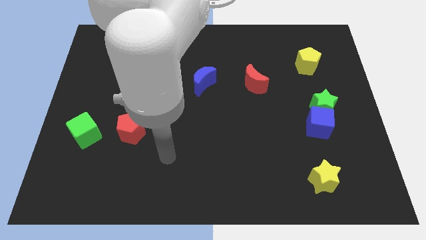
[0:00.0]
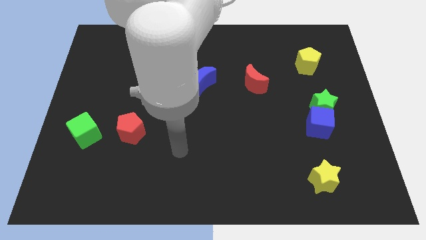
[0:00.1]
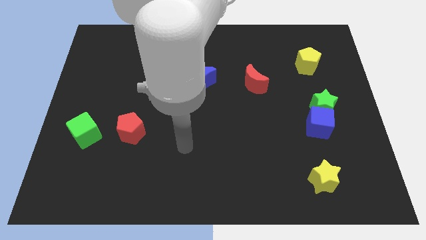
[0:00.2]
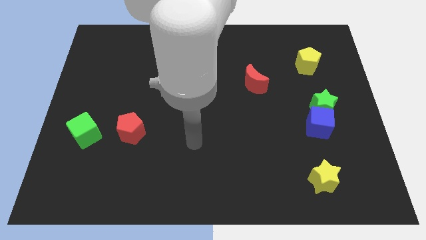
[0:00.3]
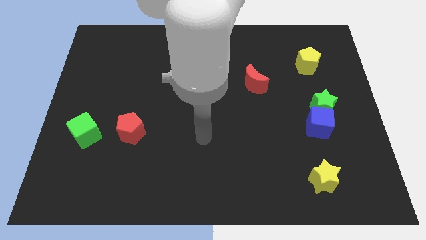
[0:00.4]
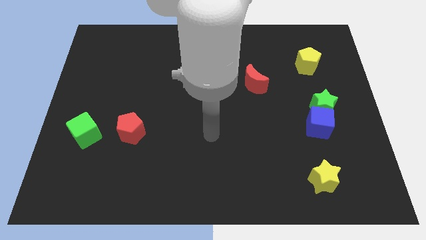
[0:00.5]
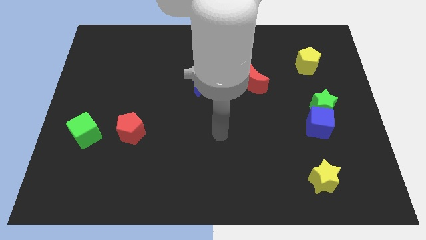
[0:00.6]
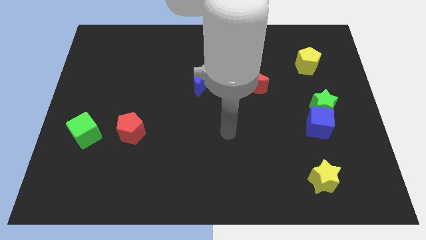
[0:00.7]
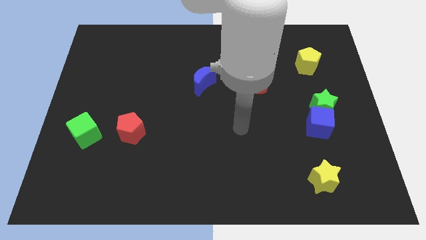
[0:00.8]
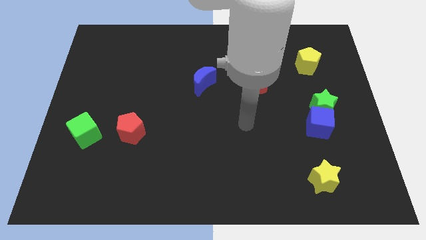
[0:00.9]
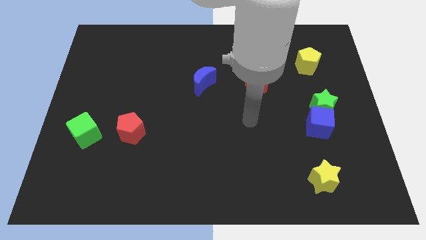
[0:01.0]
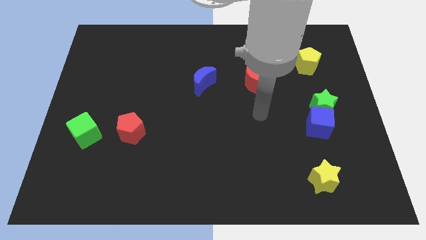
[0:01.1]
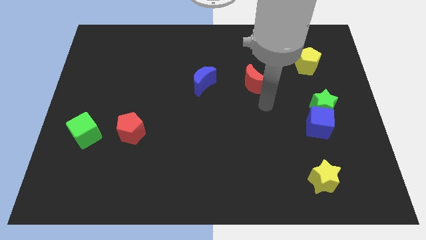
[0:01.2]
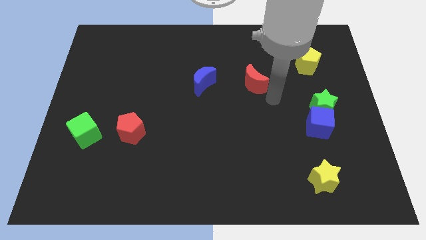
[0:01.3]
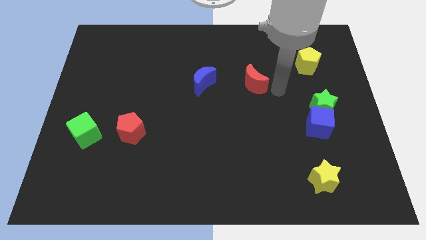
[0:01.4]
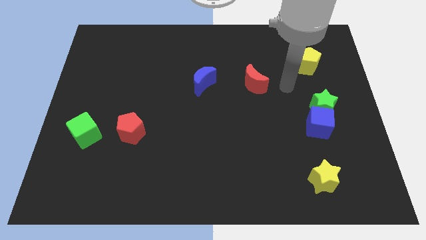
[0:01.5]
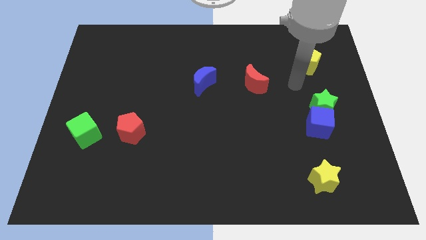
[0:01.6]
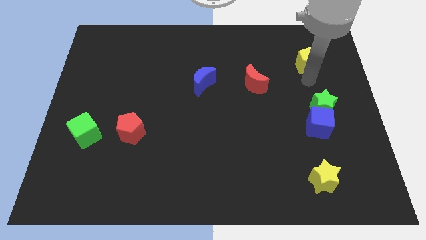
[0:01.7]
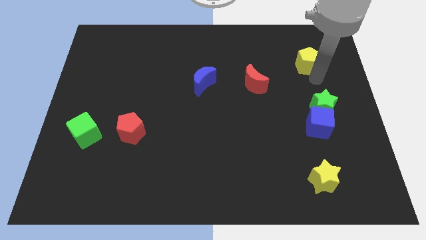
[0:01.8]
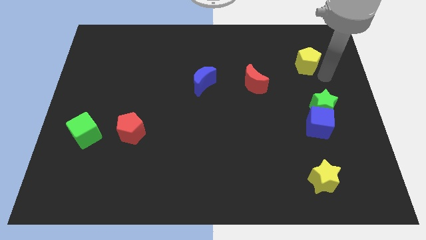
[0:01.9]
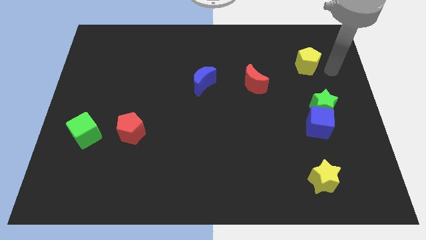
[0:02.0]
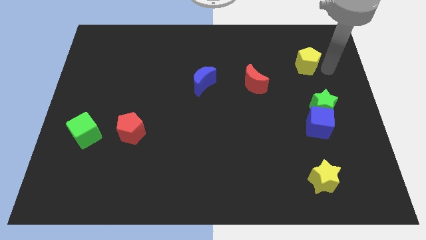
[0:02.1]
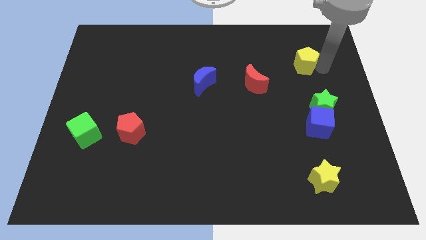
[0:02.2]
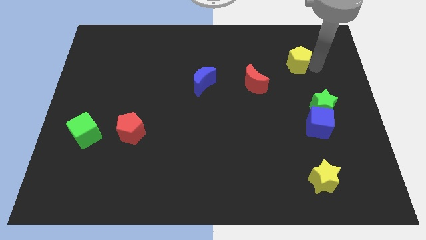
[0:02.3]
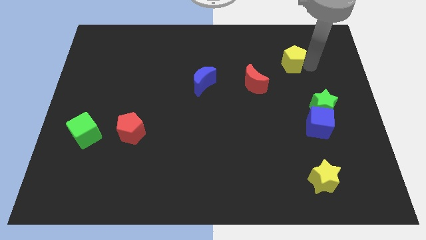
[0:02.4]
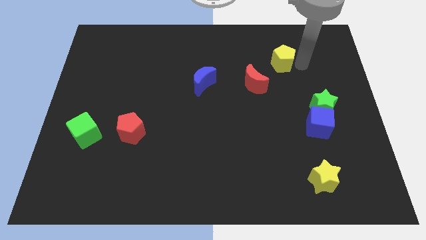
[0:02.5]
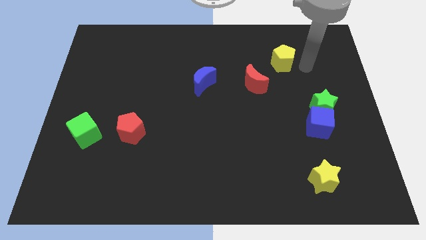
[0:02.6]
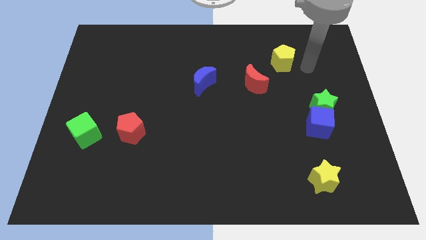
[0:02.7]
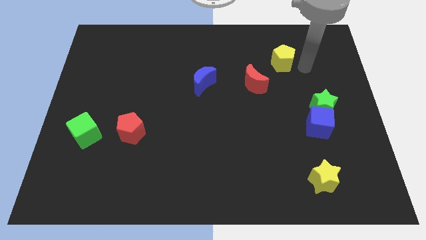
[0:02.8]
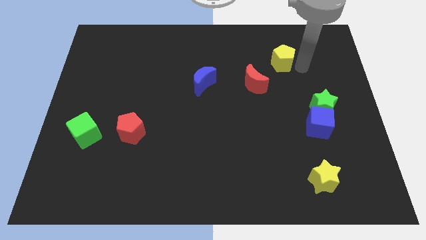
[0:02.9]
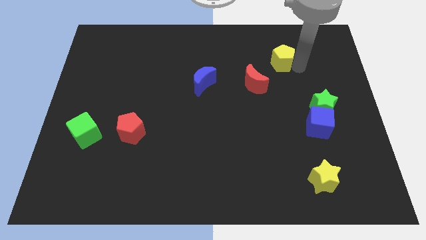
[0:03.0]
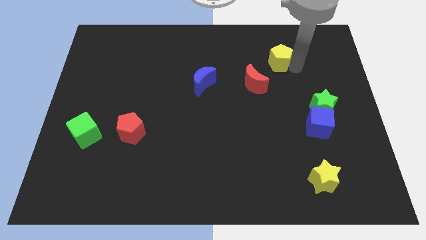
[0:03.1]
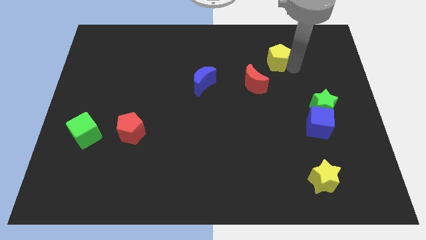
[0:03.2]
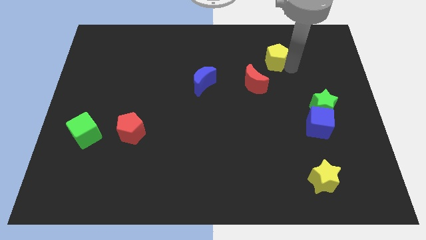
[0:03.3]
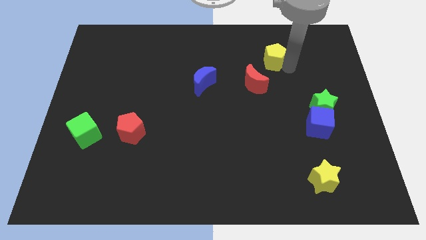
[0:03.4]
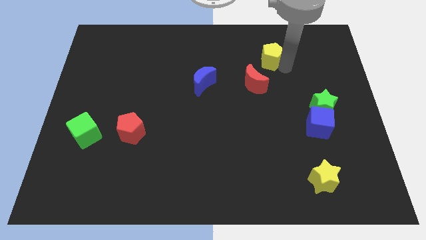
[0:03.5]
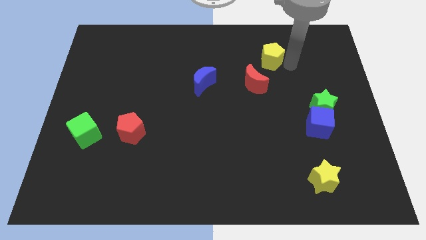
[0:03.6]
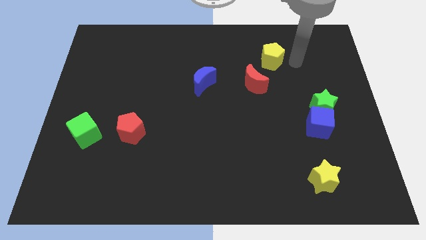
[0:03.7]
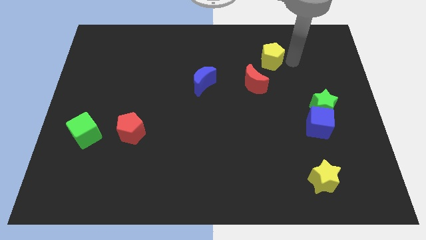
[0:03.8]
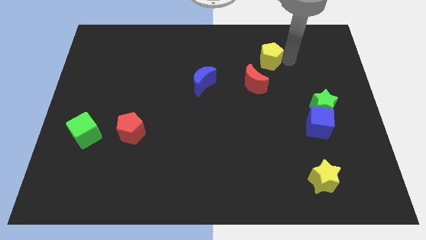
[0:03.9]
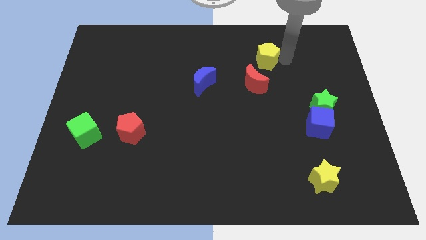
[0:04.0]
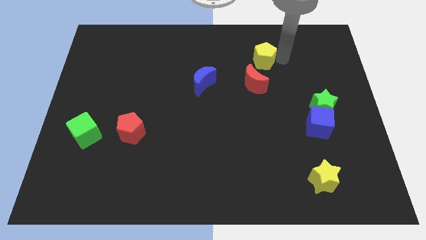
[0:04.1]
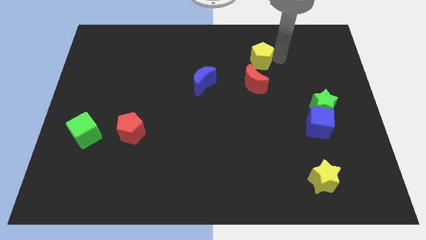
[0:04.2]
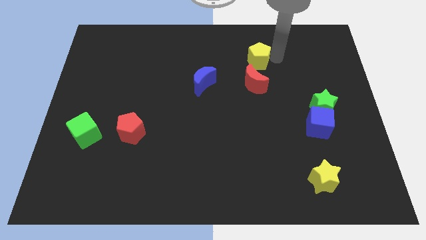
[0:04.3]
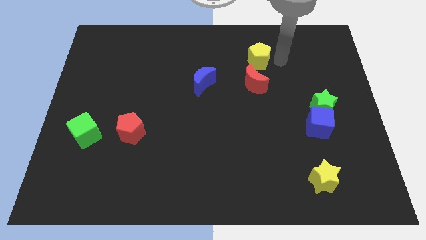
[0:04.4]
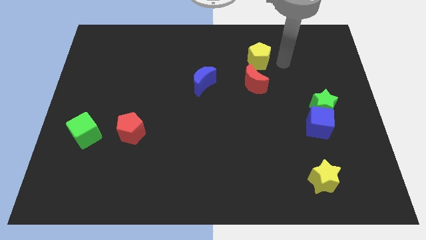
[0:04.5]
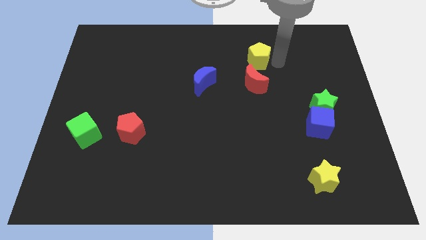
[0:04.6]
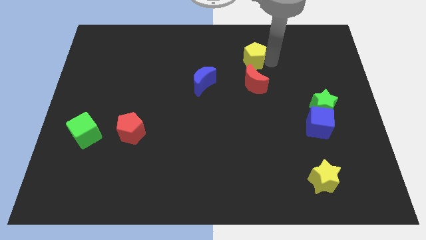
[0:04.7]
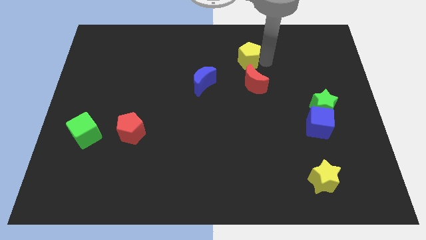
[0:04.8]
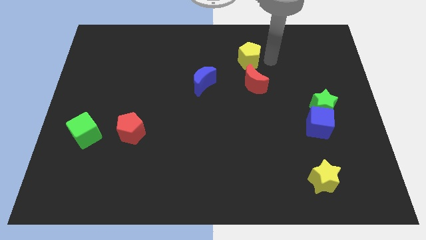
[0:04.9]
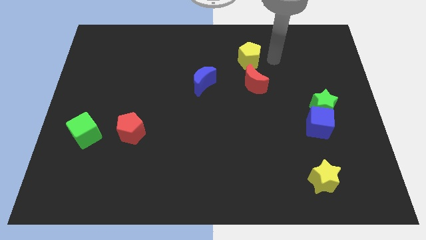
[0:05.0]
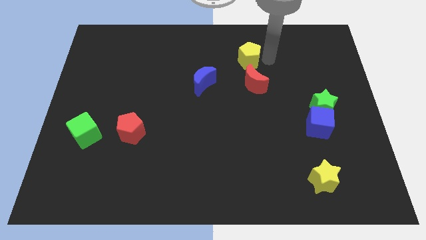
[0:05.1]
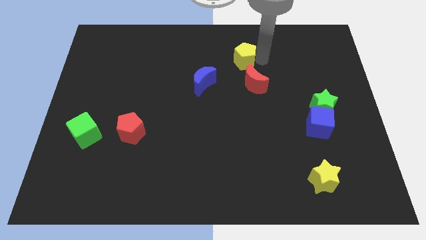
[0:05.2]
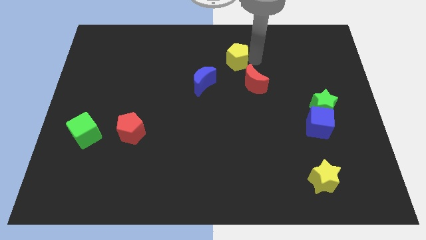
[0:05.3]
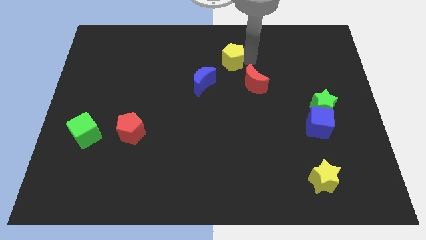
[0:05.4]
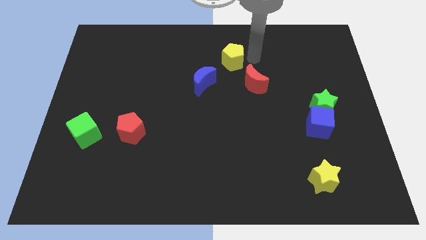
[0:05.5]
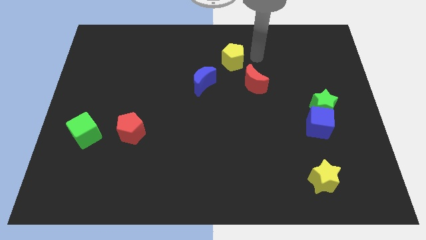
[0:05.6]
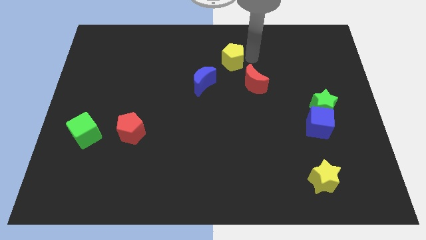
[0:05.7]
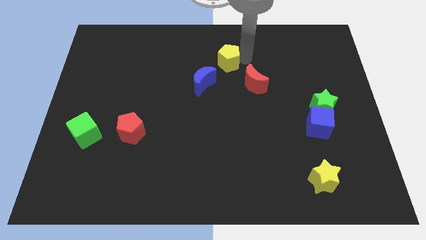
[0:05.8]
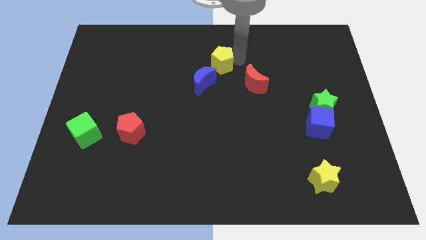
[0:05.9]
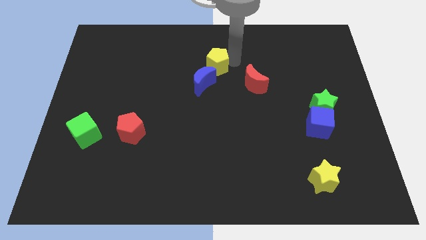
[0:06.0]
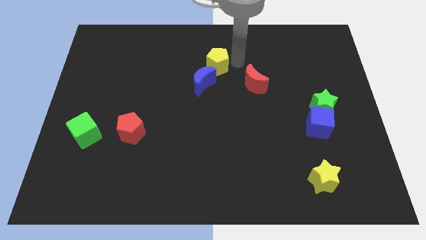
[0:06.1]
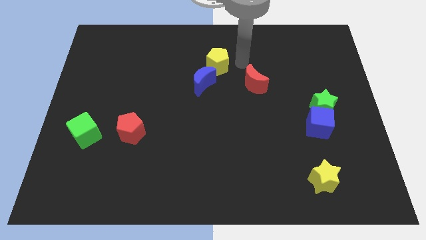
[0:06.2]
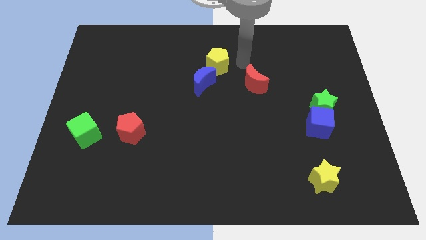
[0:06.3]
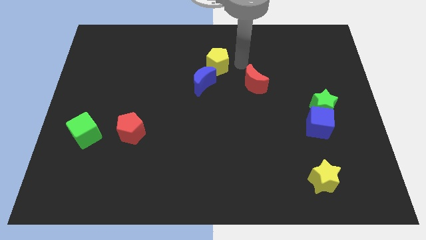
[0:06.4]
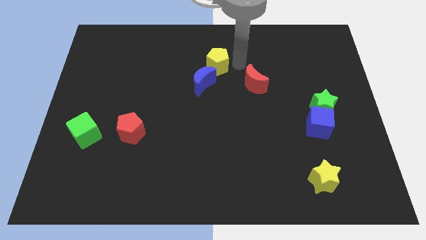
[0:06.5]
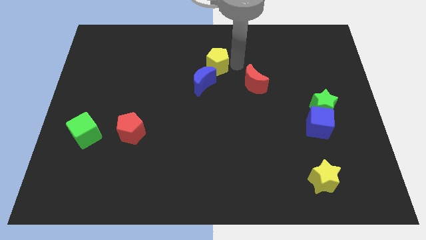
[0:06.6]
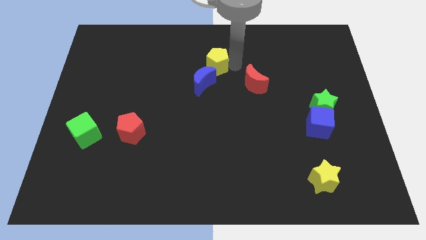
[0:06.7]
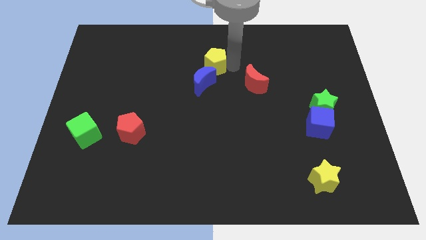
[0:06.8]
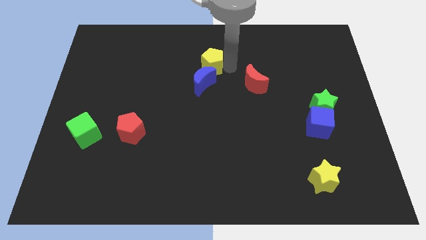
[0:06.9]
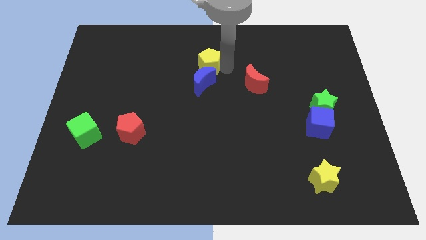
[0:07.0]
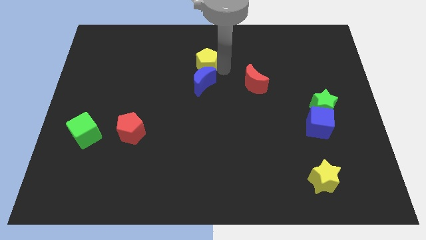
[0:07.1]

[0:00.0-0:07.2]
put the yellow pentagon diagonally up and to the left of the blue moon
